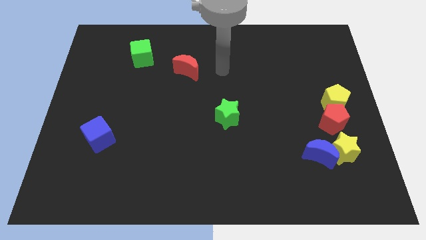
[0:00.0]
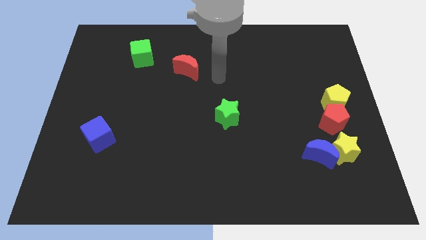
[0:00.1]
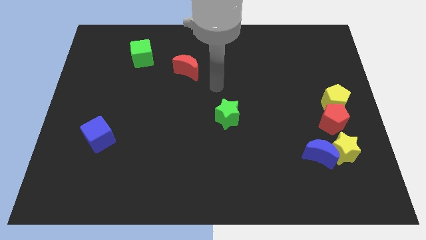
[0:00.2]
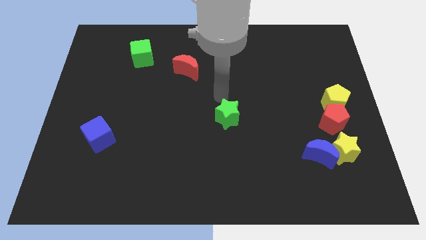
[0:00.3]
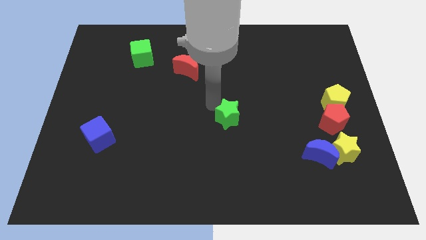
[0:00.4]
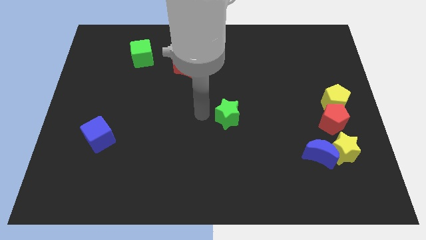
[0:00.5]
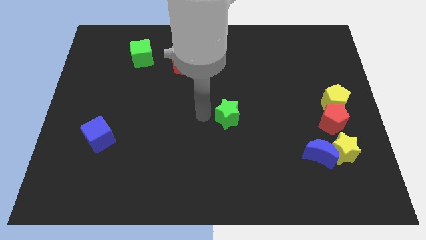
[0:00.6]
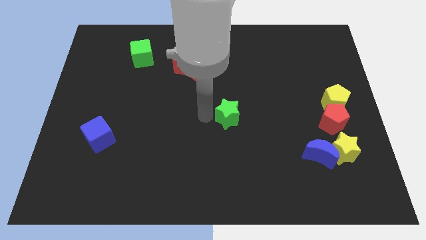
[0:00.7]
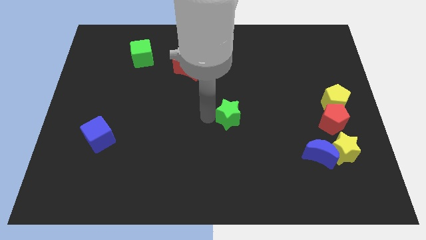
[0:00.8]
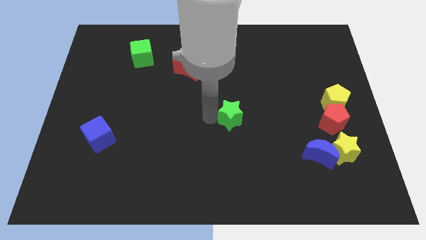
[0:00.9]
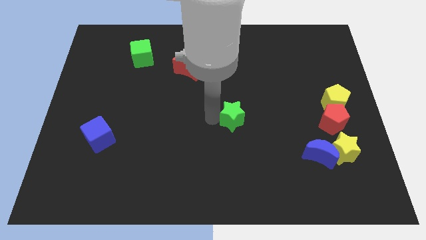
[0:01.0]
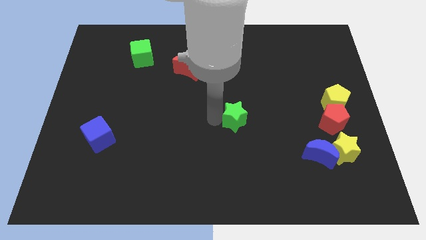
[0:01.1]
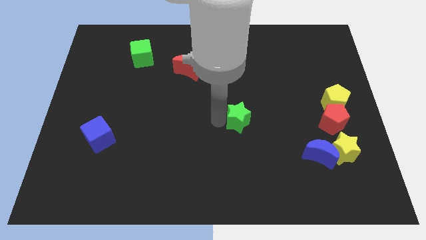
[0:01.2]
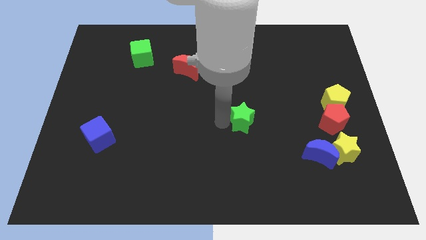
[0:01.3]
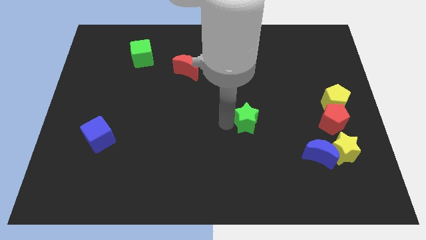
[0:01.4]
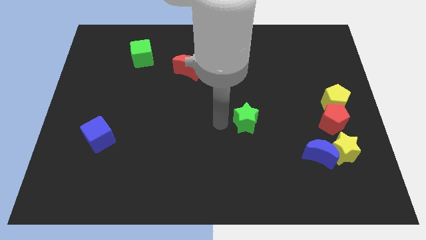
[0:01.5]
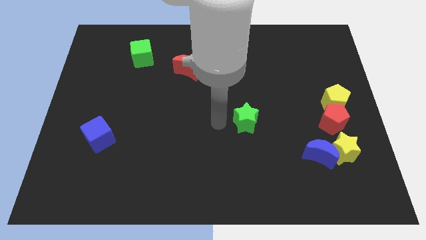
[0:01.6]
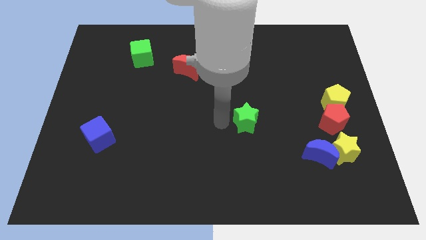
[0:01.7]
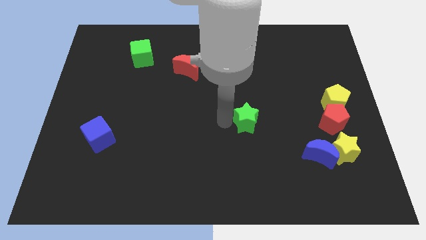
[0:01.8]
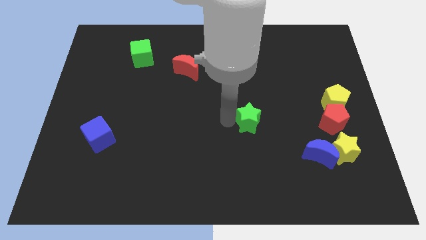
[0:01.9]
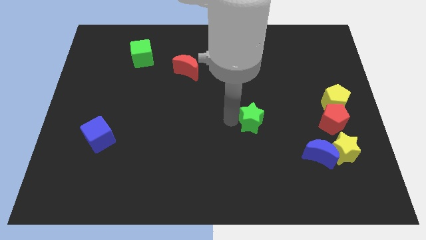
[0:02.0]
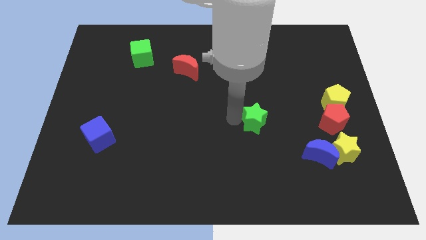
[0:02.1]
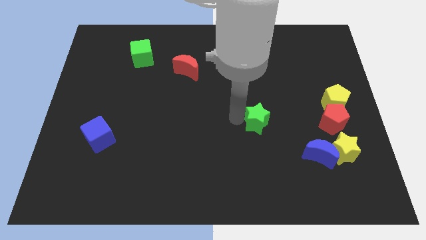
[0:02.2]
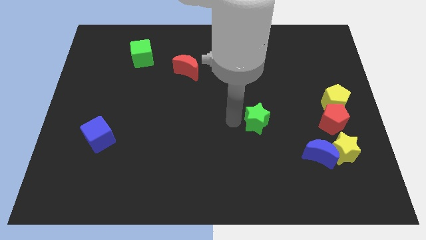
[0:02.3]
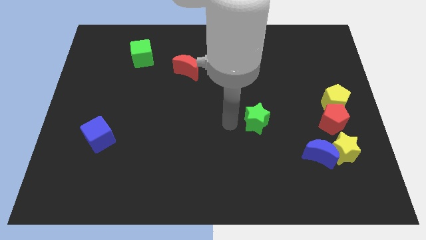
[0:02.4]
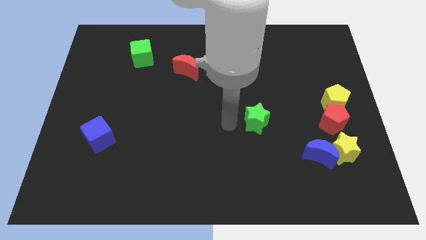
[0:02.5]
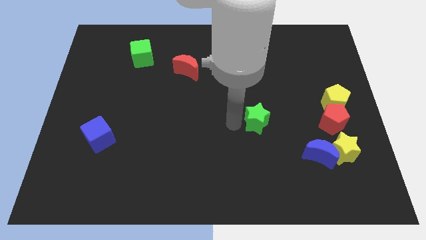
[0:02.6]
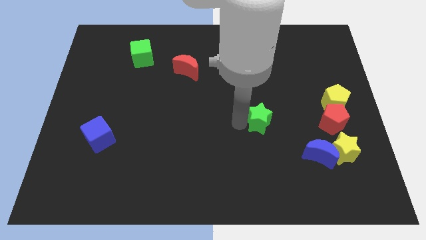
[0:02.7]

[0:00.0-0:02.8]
move the green star right slightly

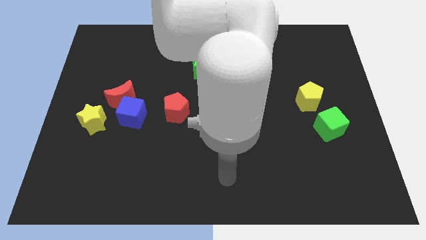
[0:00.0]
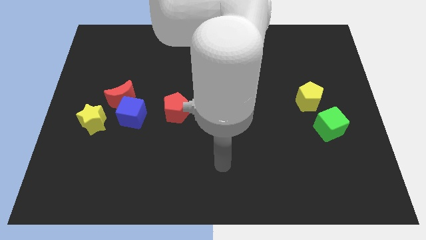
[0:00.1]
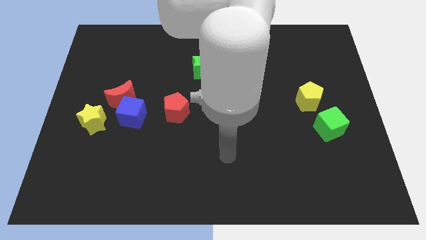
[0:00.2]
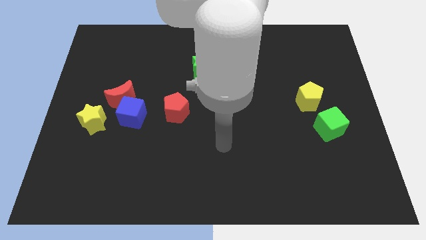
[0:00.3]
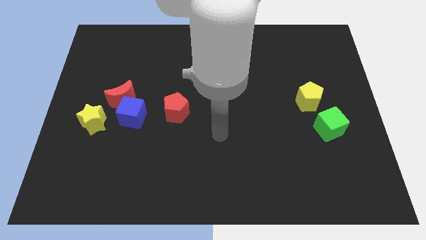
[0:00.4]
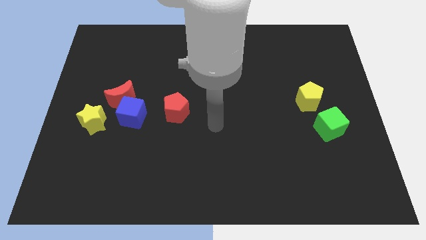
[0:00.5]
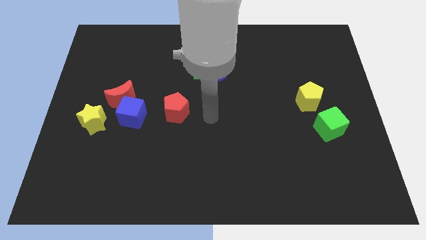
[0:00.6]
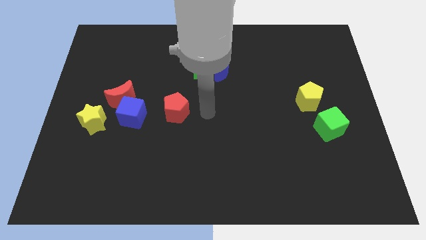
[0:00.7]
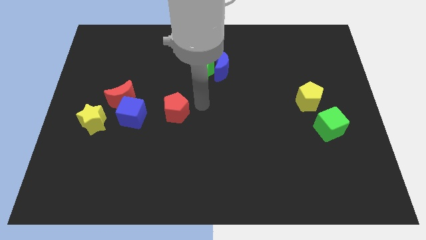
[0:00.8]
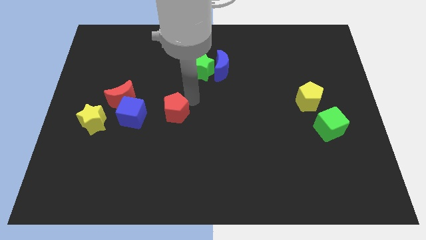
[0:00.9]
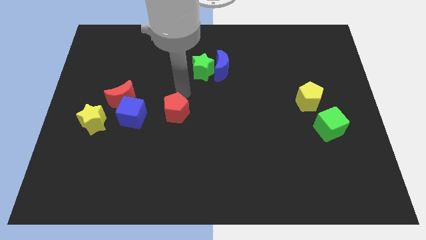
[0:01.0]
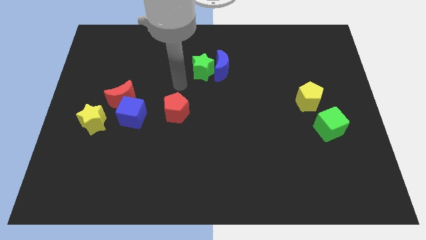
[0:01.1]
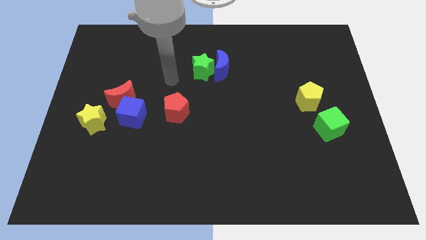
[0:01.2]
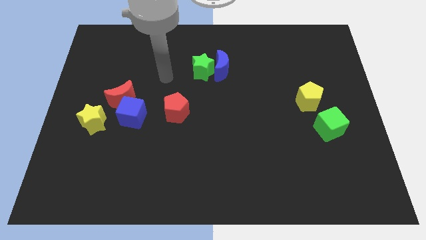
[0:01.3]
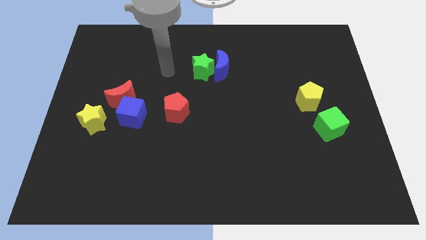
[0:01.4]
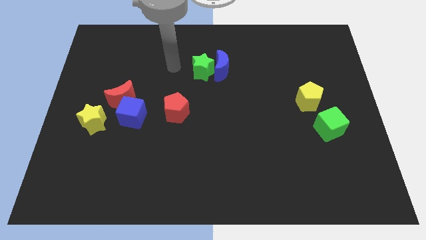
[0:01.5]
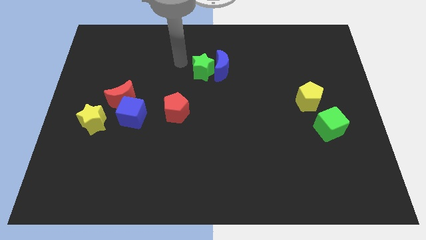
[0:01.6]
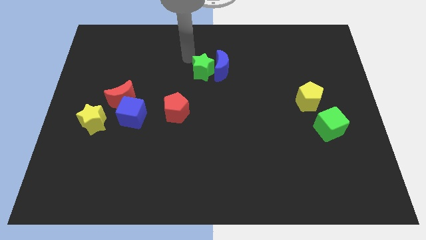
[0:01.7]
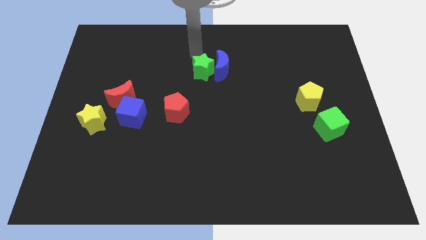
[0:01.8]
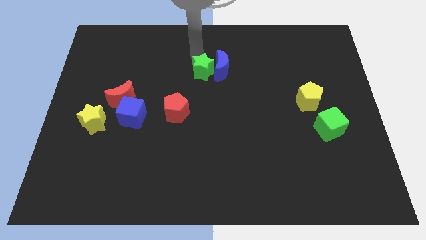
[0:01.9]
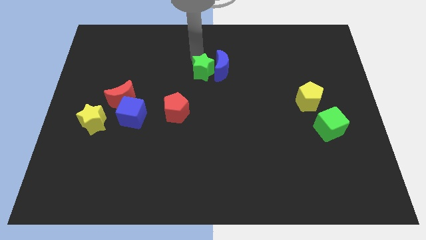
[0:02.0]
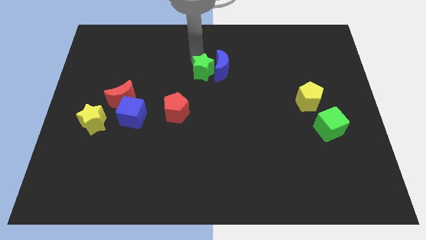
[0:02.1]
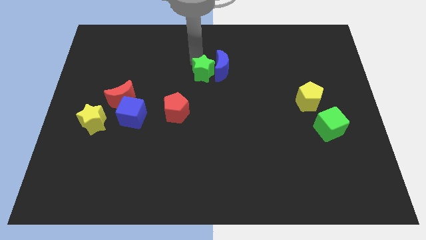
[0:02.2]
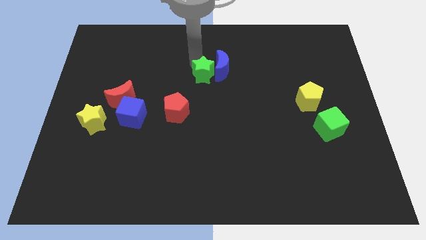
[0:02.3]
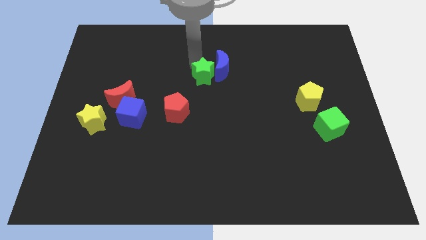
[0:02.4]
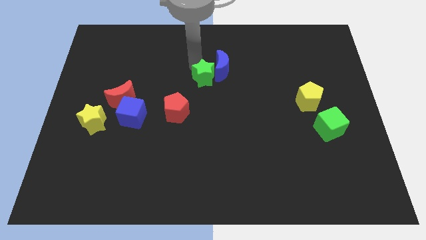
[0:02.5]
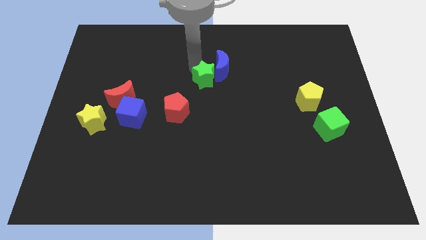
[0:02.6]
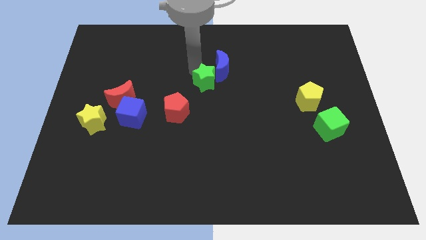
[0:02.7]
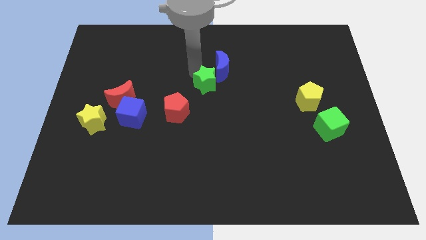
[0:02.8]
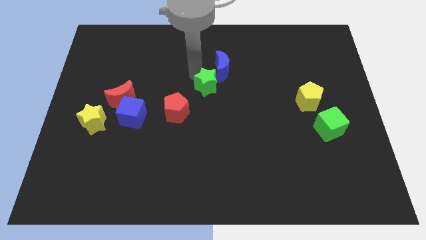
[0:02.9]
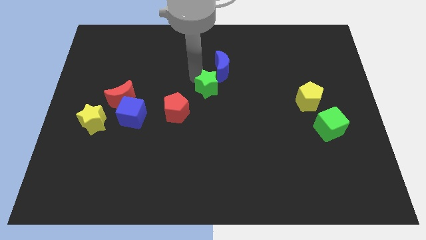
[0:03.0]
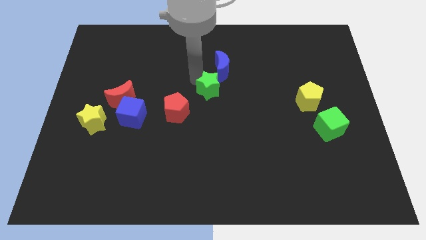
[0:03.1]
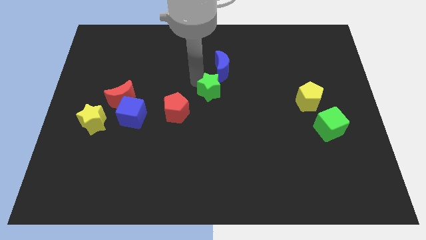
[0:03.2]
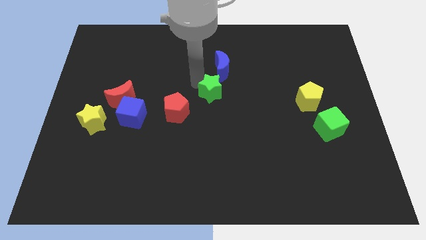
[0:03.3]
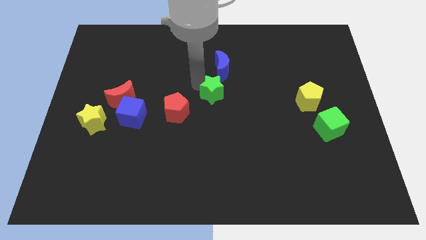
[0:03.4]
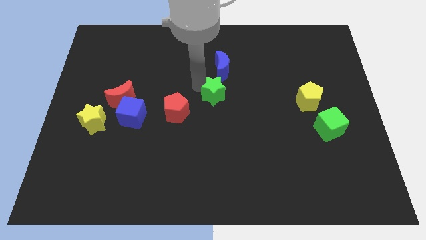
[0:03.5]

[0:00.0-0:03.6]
move the green star diagonally down and right slightly

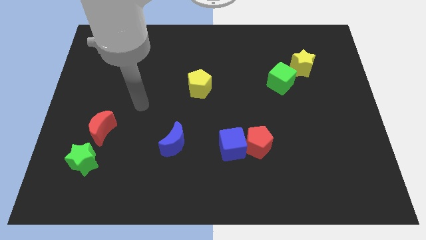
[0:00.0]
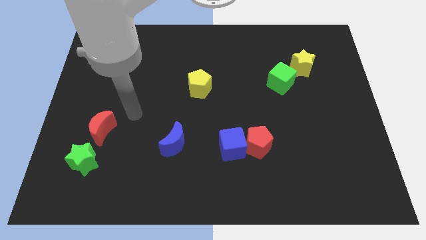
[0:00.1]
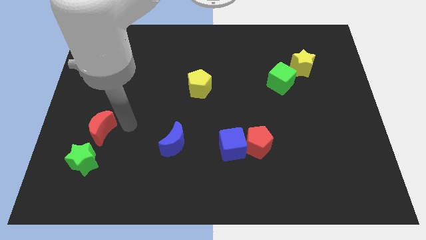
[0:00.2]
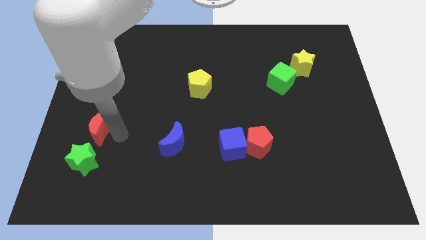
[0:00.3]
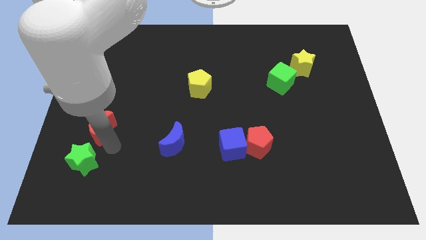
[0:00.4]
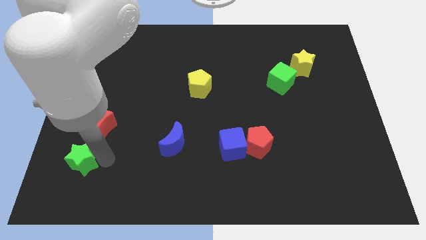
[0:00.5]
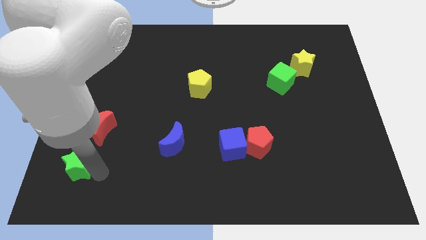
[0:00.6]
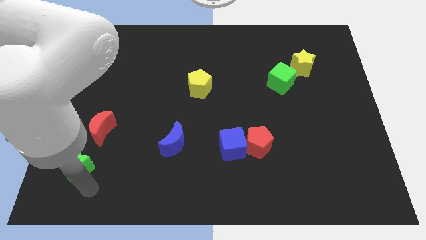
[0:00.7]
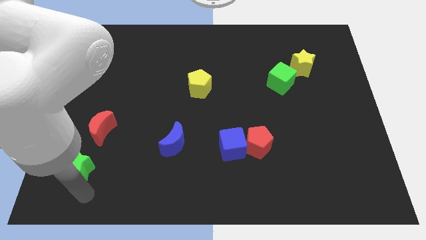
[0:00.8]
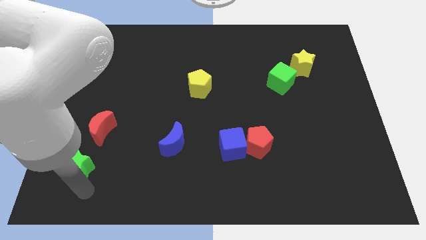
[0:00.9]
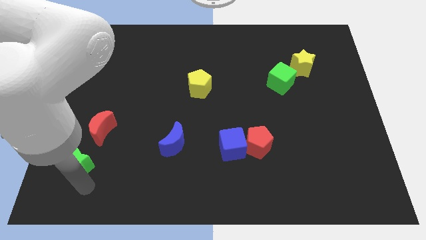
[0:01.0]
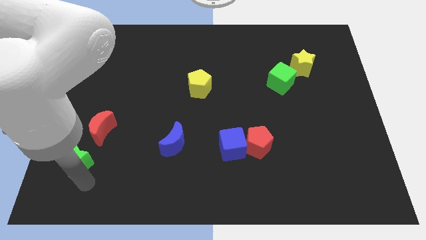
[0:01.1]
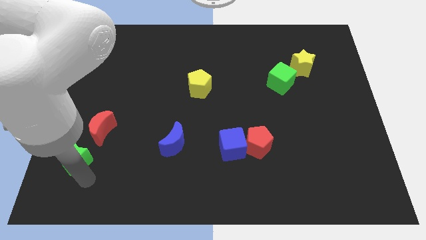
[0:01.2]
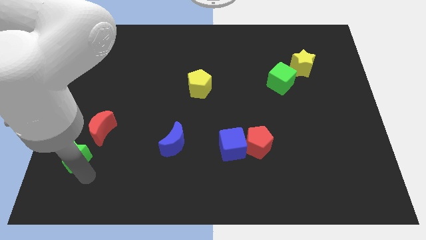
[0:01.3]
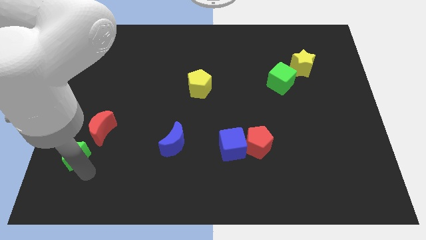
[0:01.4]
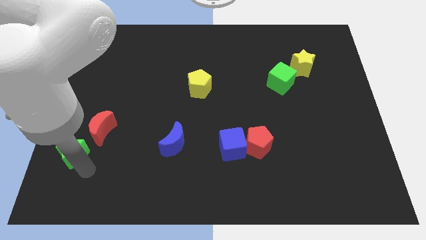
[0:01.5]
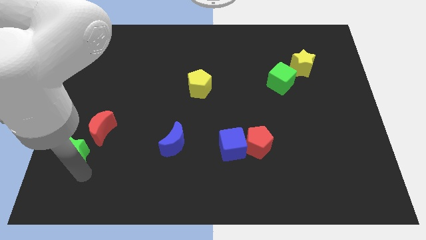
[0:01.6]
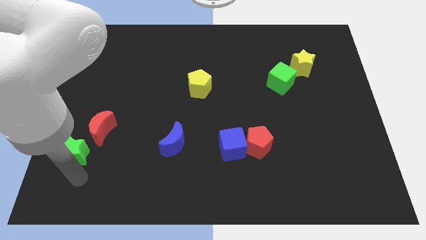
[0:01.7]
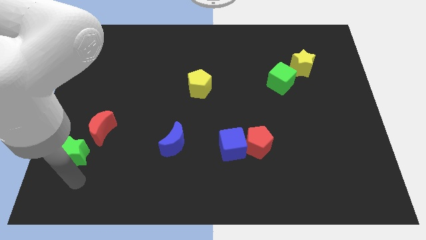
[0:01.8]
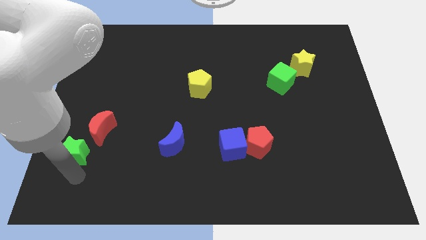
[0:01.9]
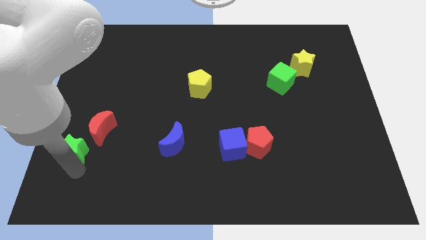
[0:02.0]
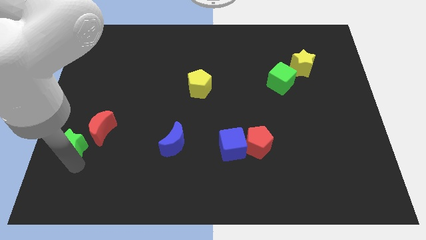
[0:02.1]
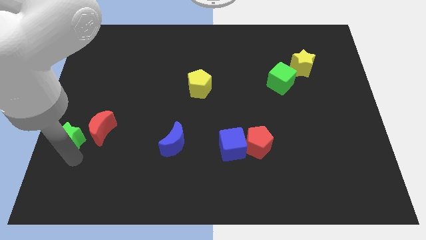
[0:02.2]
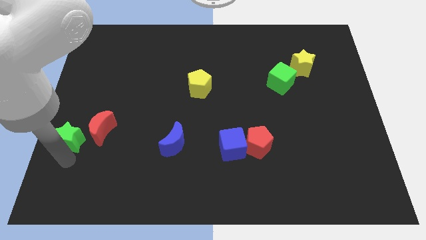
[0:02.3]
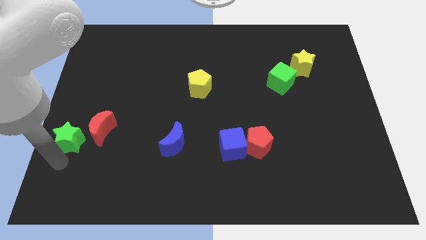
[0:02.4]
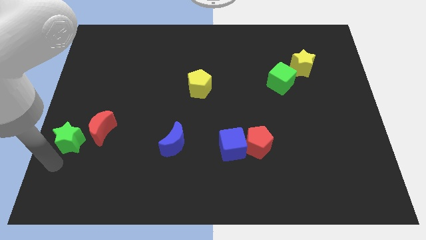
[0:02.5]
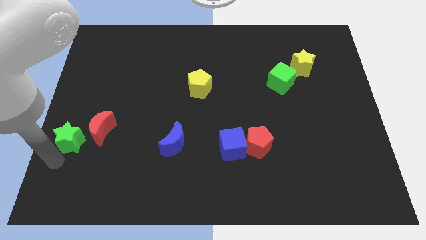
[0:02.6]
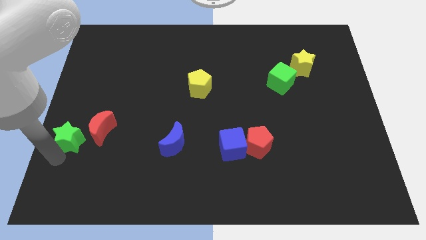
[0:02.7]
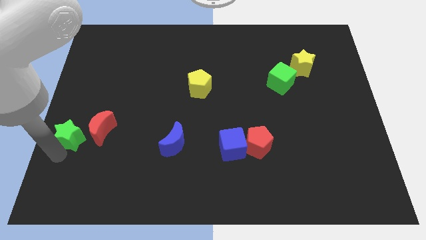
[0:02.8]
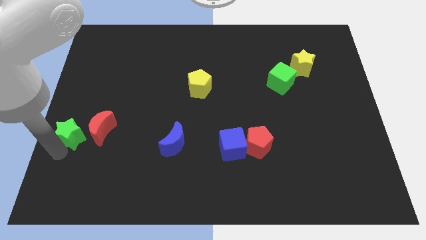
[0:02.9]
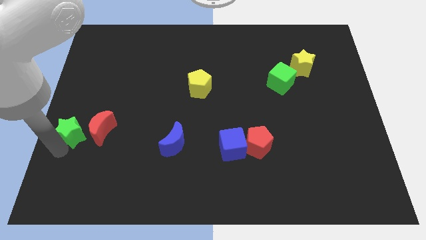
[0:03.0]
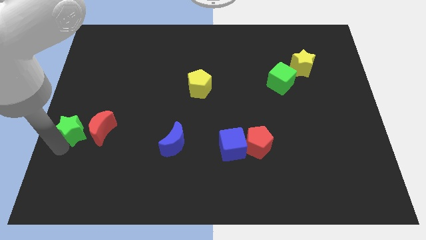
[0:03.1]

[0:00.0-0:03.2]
move the green star up slightly
